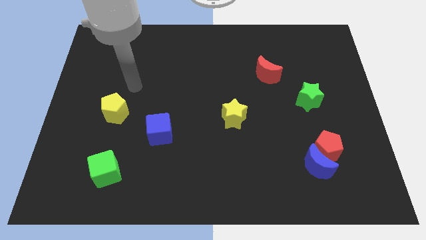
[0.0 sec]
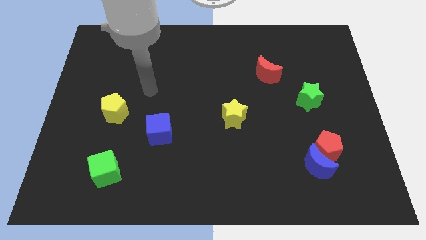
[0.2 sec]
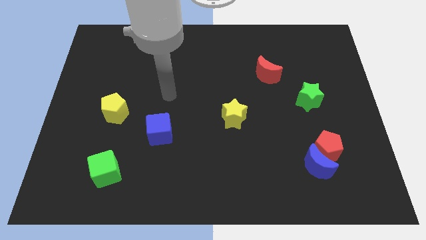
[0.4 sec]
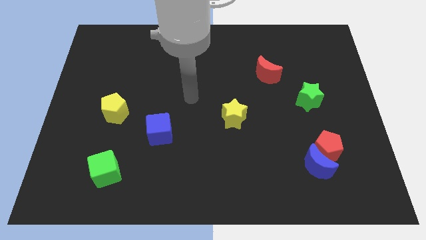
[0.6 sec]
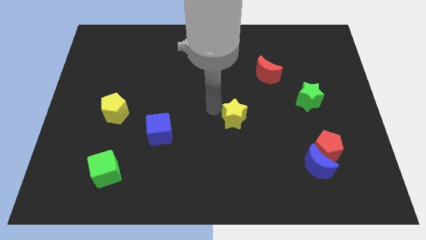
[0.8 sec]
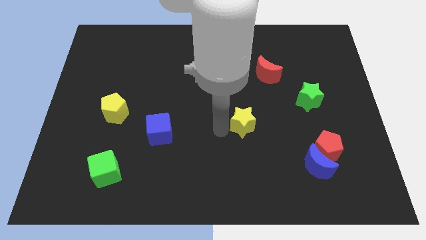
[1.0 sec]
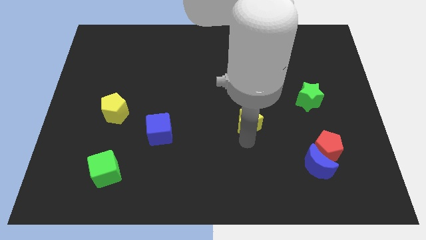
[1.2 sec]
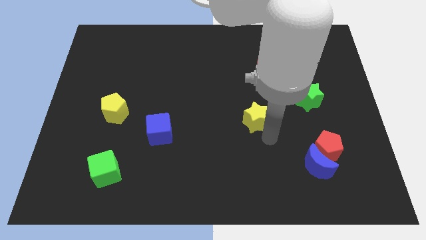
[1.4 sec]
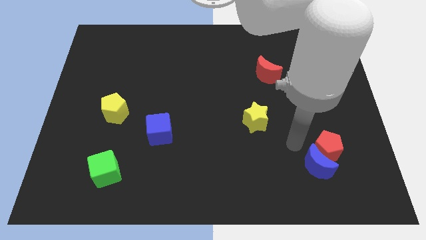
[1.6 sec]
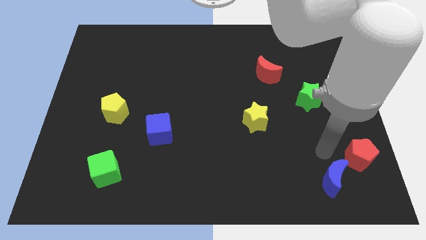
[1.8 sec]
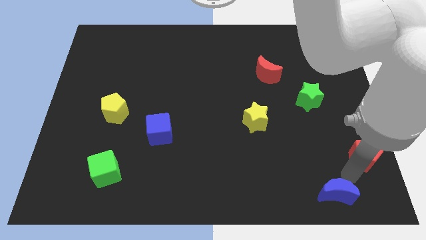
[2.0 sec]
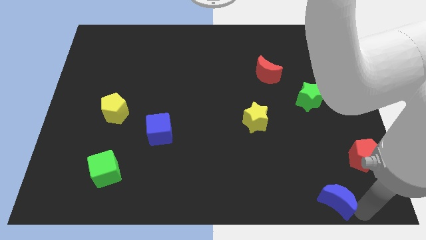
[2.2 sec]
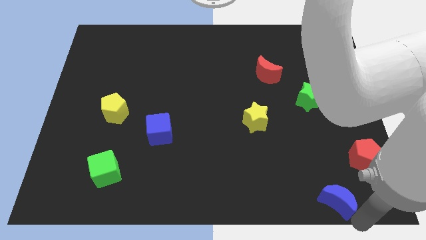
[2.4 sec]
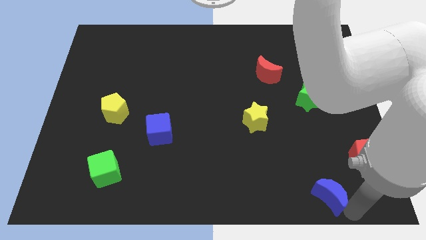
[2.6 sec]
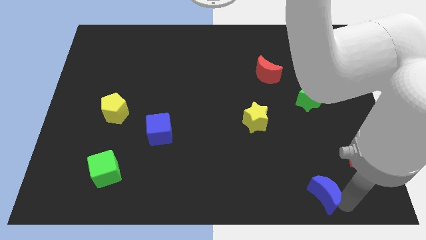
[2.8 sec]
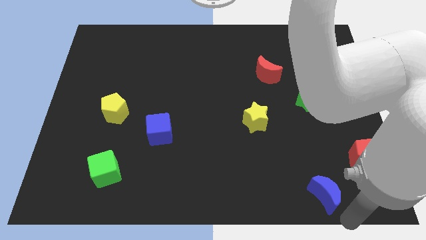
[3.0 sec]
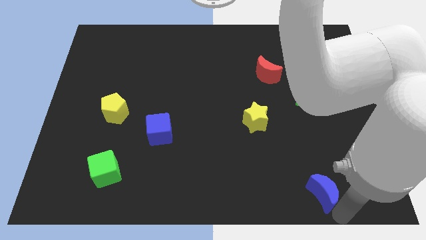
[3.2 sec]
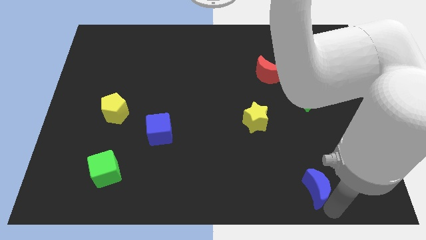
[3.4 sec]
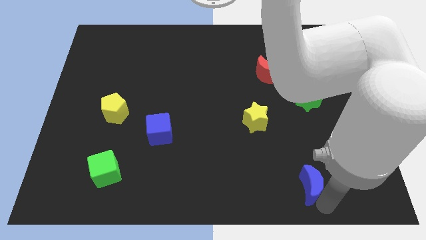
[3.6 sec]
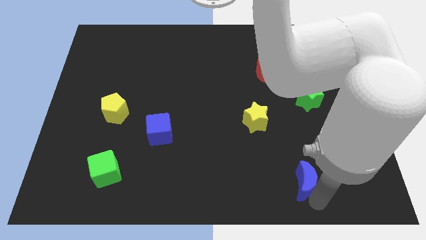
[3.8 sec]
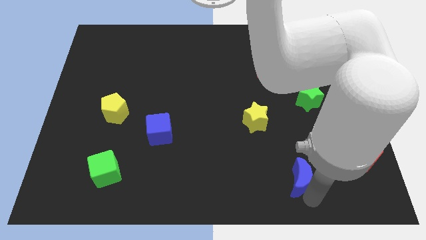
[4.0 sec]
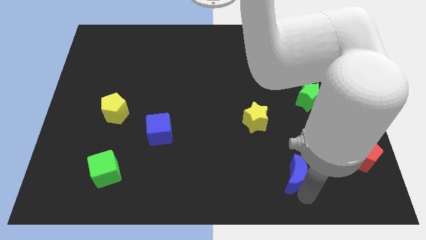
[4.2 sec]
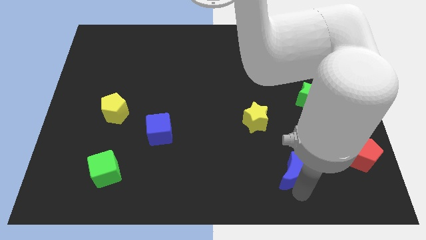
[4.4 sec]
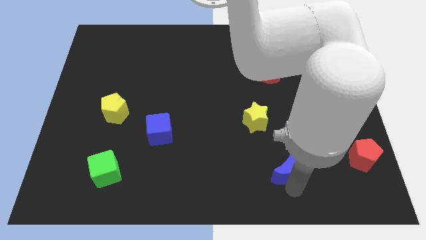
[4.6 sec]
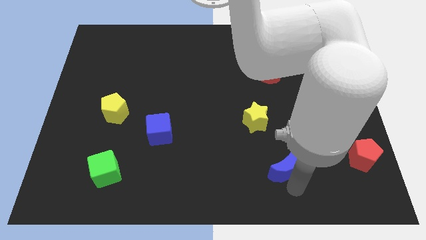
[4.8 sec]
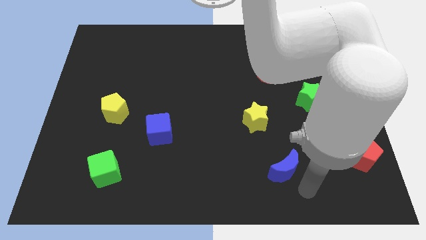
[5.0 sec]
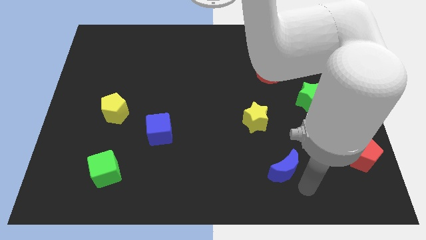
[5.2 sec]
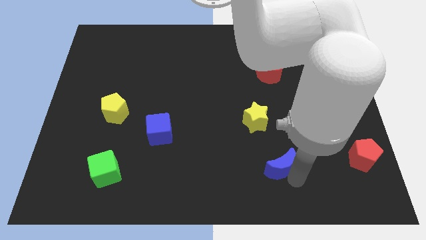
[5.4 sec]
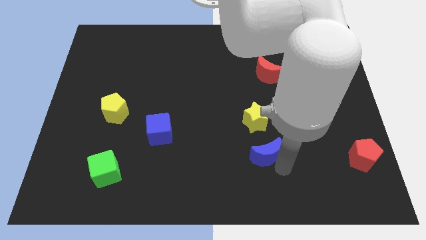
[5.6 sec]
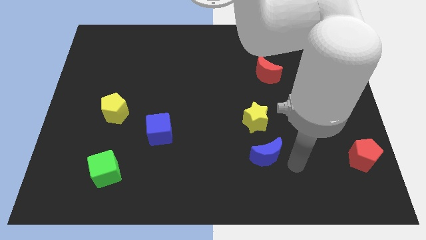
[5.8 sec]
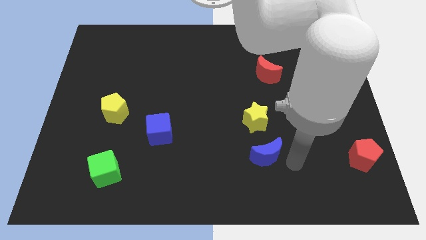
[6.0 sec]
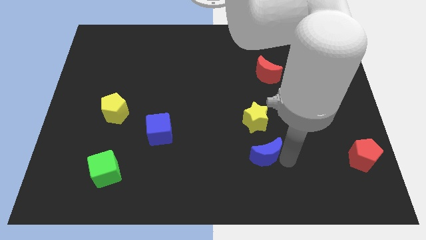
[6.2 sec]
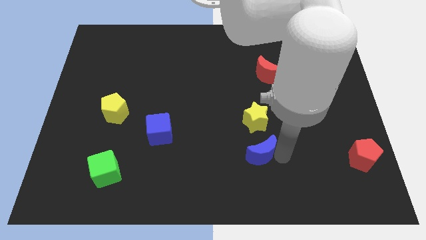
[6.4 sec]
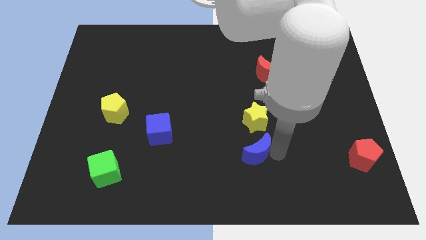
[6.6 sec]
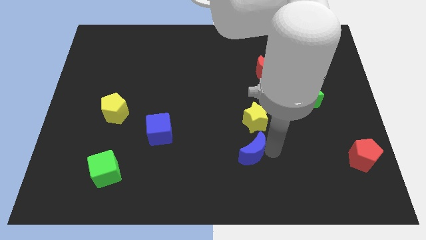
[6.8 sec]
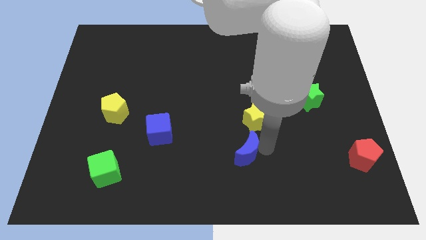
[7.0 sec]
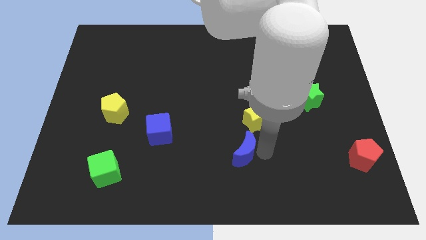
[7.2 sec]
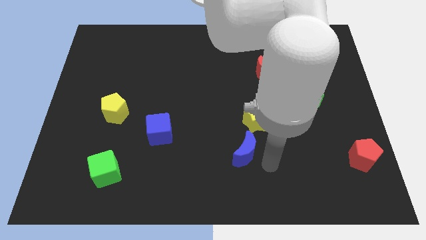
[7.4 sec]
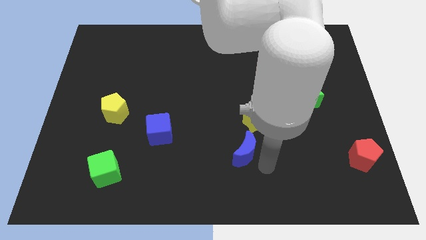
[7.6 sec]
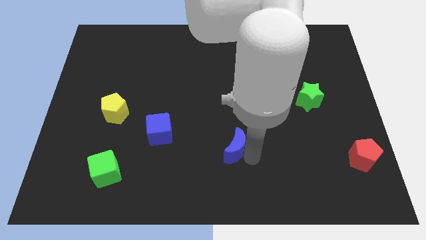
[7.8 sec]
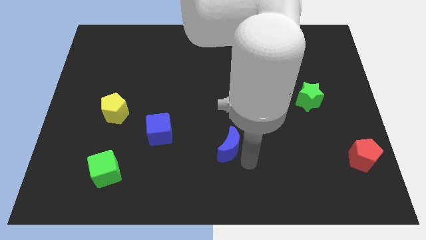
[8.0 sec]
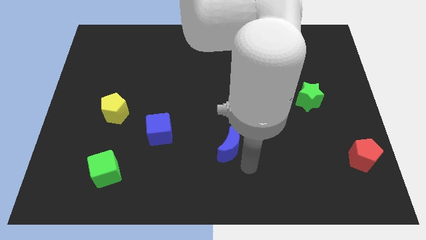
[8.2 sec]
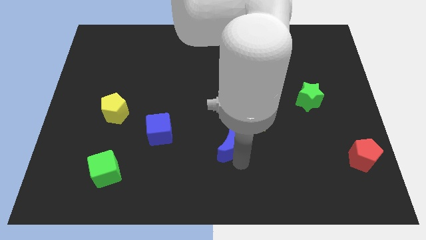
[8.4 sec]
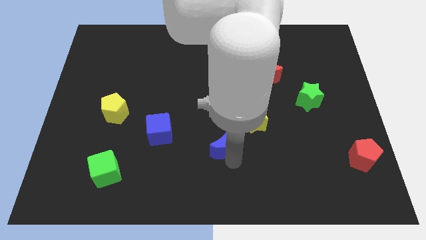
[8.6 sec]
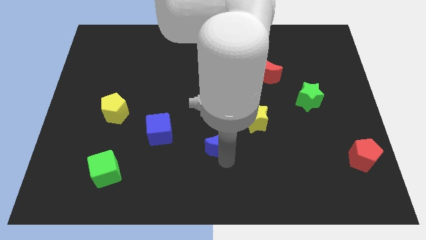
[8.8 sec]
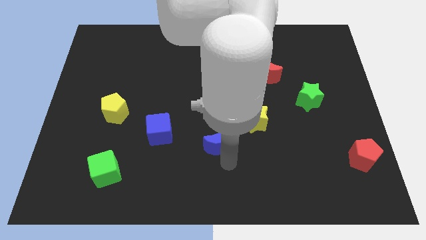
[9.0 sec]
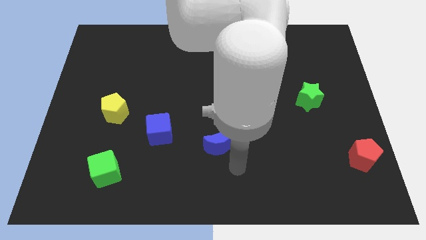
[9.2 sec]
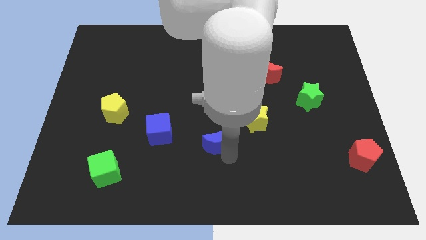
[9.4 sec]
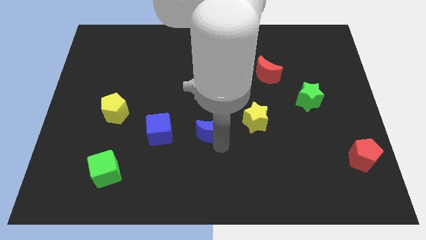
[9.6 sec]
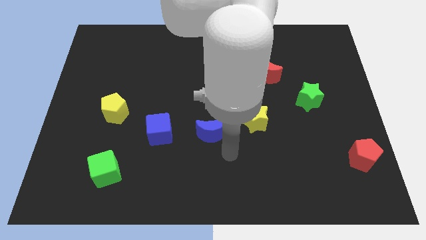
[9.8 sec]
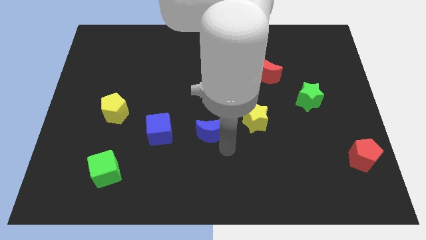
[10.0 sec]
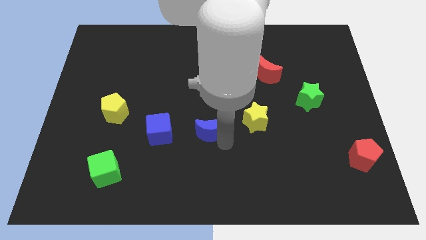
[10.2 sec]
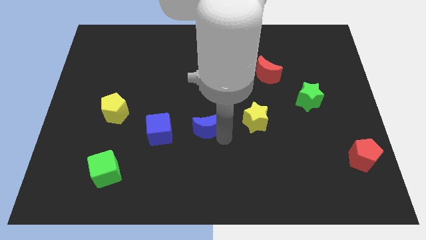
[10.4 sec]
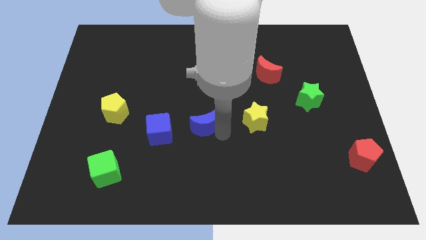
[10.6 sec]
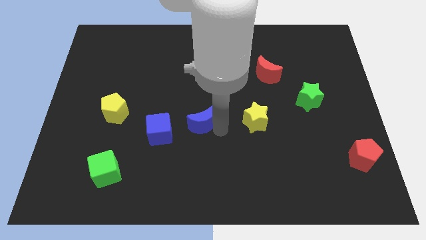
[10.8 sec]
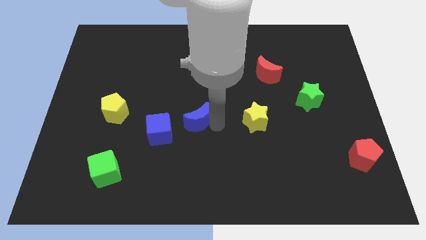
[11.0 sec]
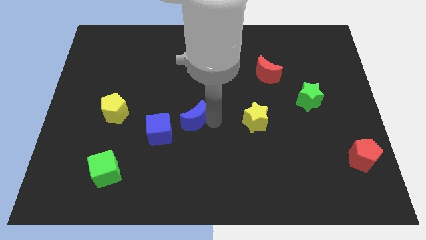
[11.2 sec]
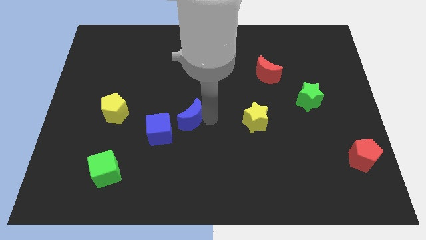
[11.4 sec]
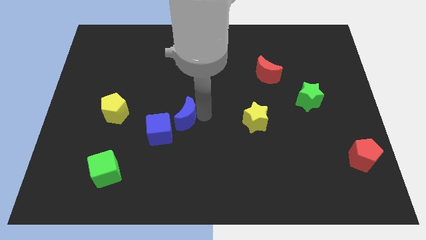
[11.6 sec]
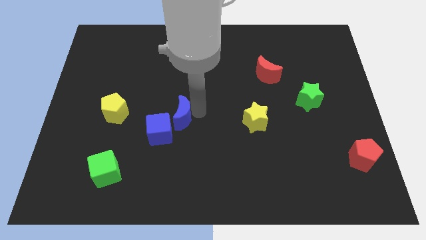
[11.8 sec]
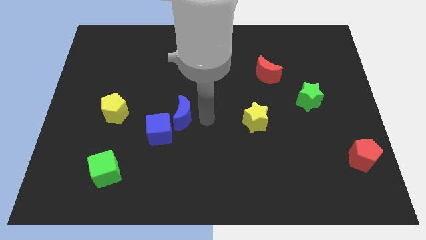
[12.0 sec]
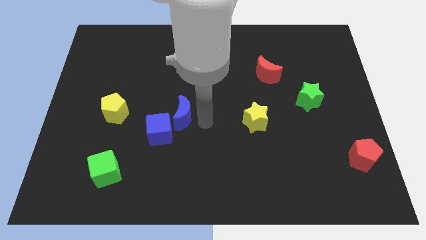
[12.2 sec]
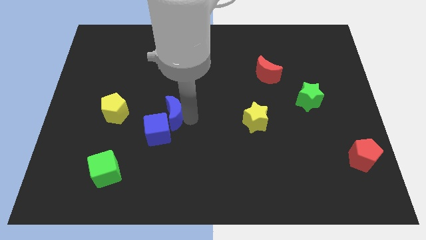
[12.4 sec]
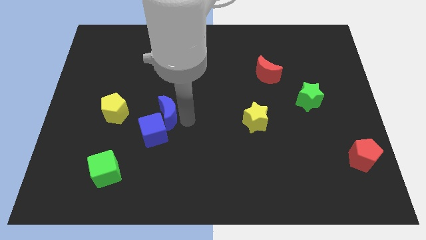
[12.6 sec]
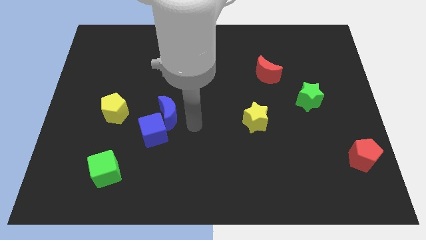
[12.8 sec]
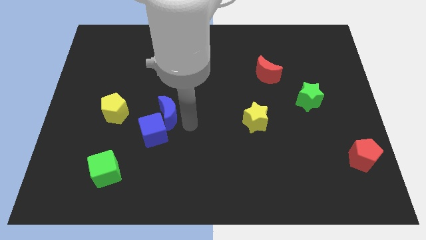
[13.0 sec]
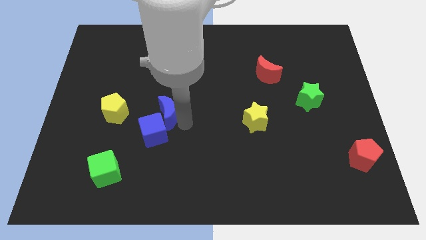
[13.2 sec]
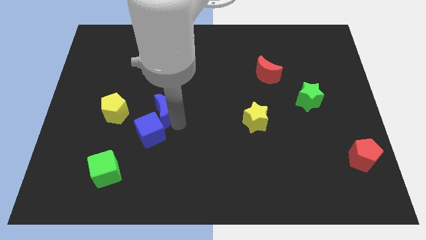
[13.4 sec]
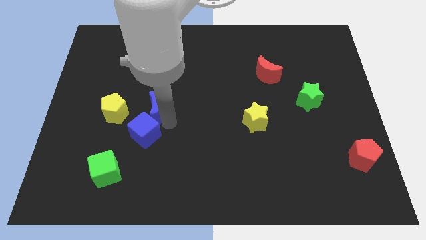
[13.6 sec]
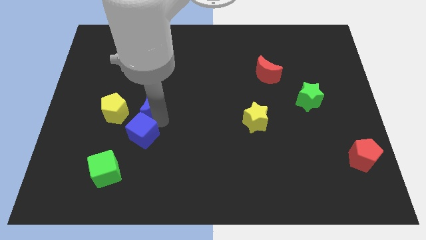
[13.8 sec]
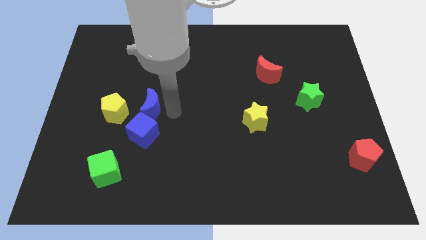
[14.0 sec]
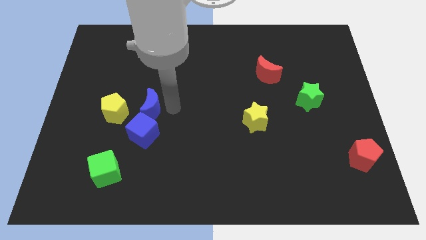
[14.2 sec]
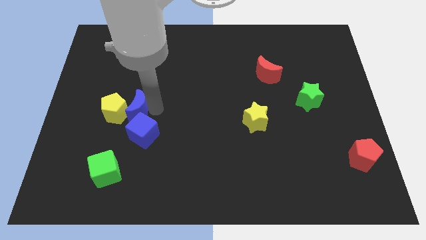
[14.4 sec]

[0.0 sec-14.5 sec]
slide the blue moon close to the yellow pentagon

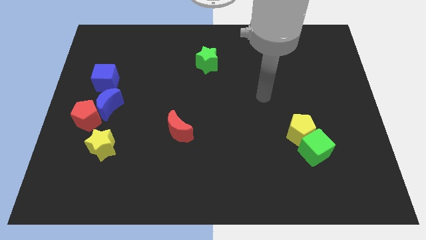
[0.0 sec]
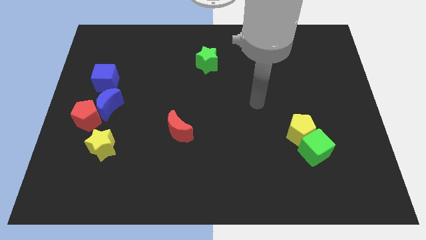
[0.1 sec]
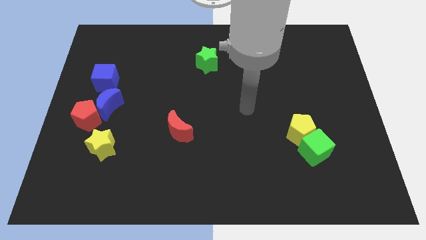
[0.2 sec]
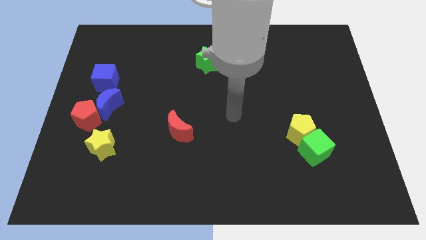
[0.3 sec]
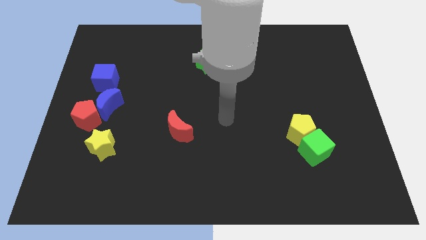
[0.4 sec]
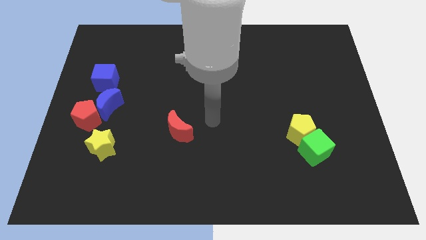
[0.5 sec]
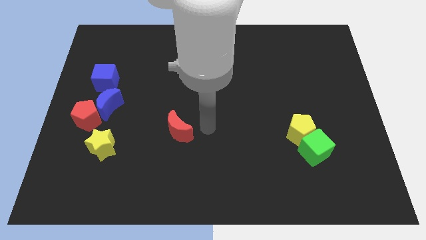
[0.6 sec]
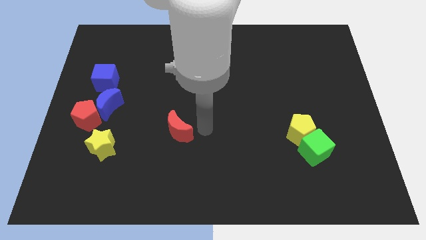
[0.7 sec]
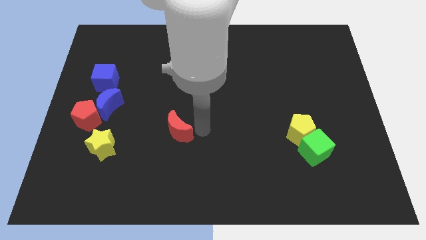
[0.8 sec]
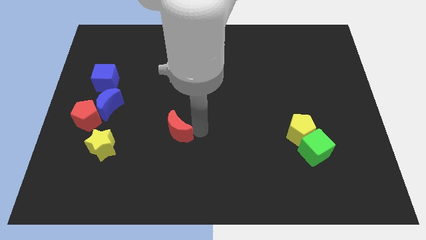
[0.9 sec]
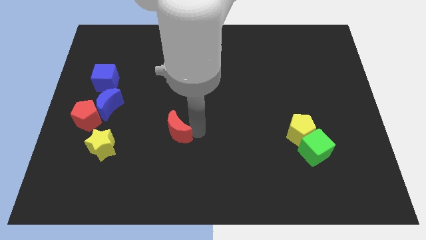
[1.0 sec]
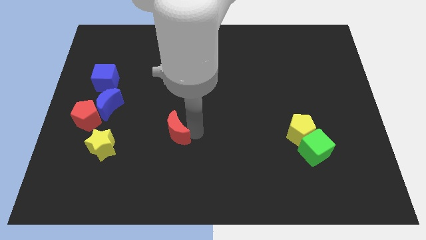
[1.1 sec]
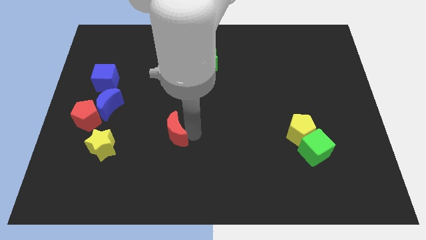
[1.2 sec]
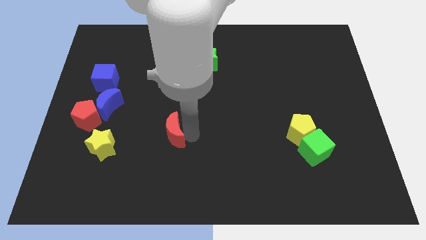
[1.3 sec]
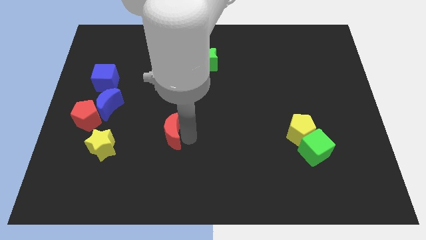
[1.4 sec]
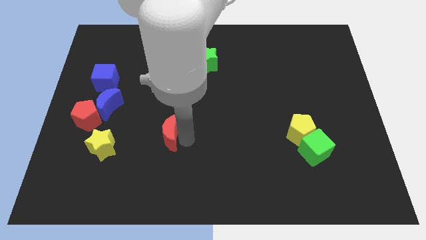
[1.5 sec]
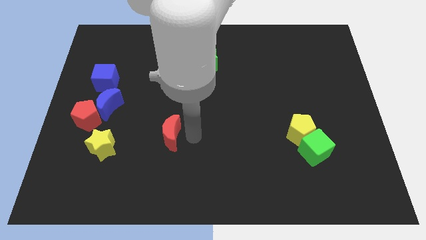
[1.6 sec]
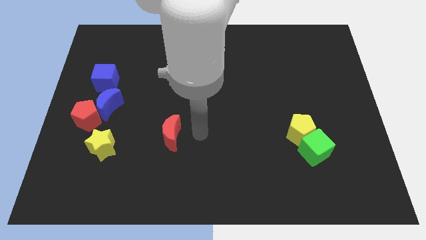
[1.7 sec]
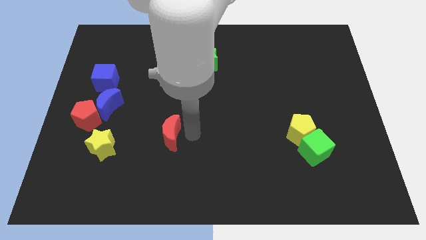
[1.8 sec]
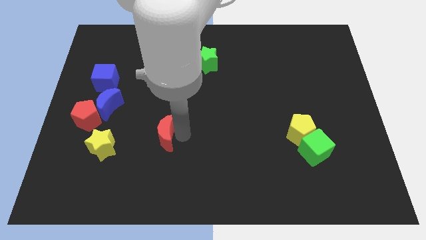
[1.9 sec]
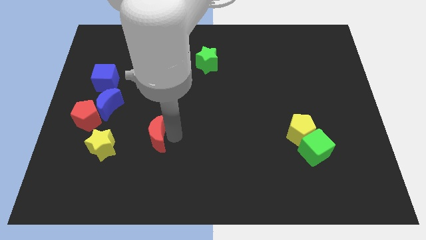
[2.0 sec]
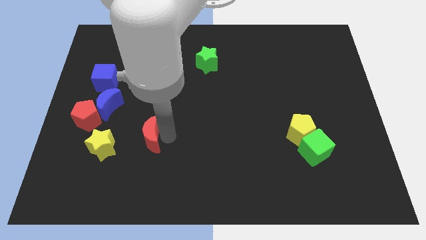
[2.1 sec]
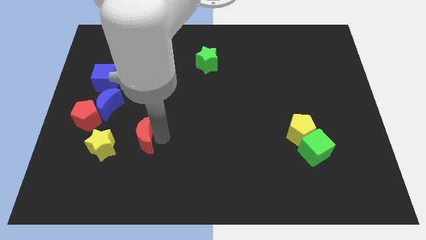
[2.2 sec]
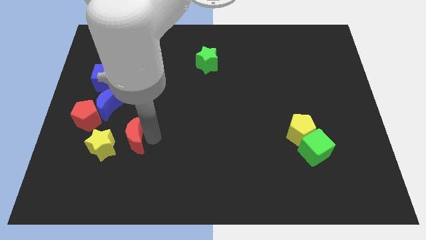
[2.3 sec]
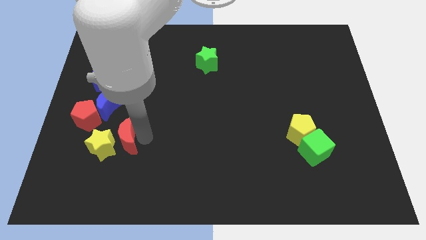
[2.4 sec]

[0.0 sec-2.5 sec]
slide the red moon towards the yellow star
